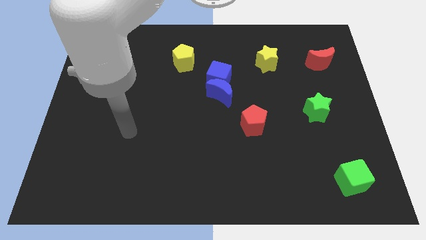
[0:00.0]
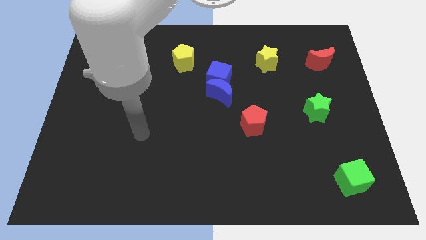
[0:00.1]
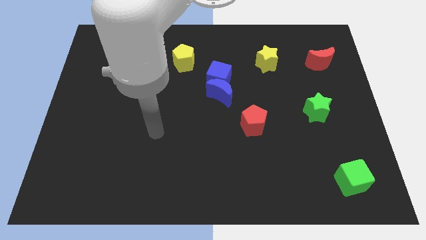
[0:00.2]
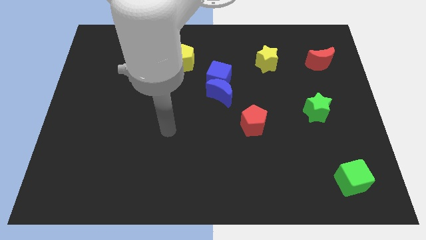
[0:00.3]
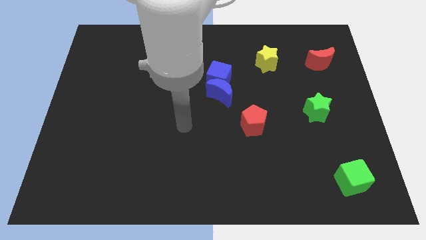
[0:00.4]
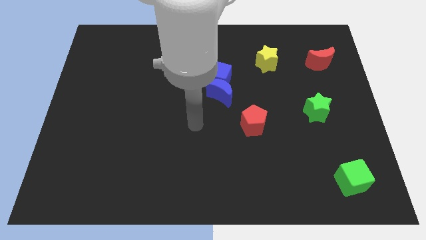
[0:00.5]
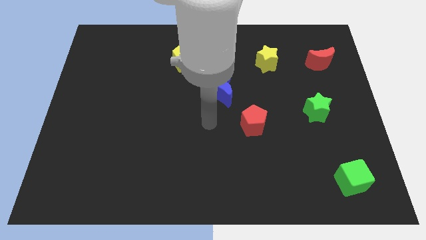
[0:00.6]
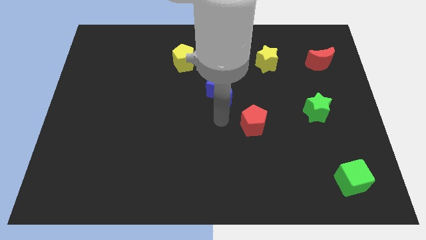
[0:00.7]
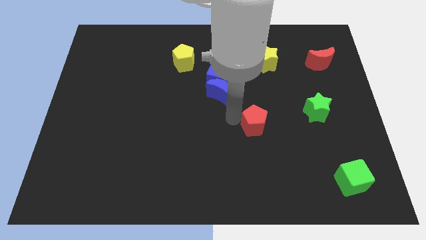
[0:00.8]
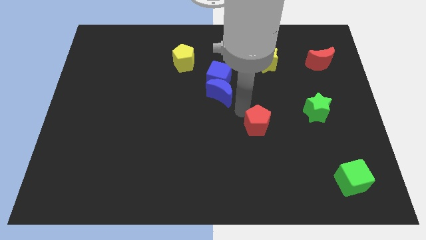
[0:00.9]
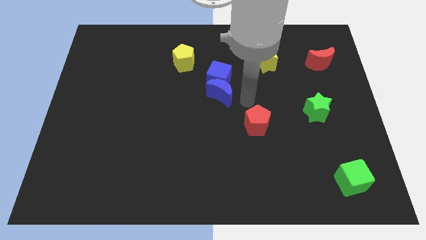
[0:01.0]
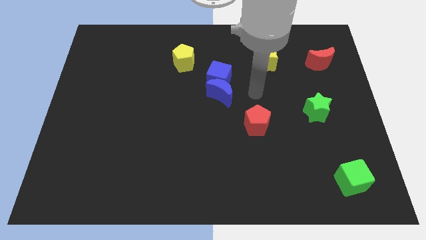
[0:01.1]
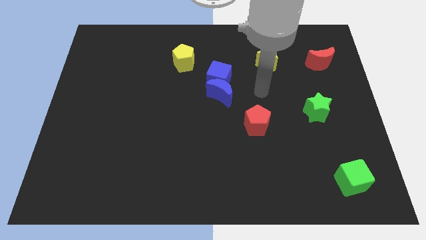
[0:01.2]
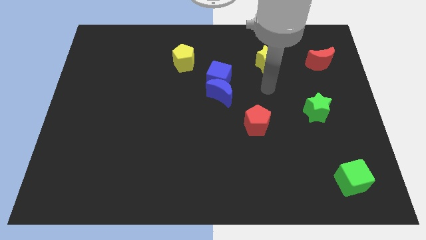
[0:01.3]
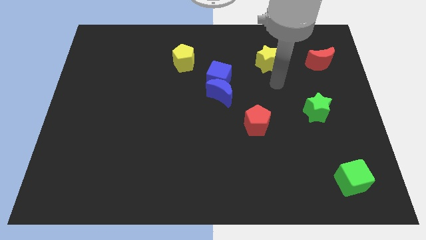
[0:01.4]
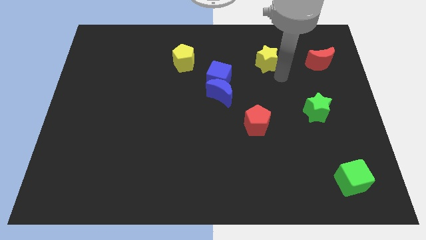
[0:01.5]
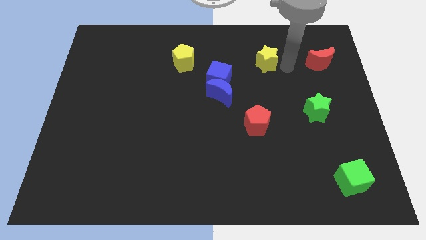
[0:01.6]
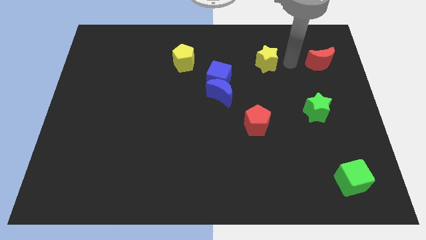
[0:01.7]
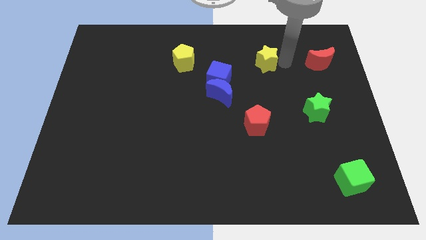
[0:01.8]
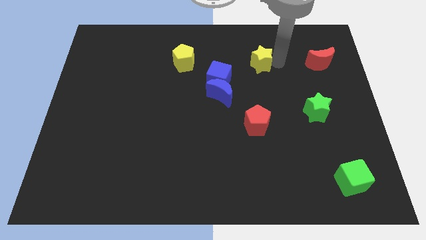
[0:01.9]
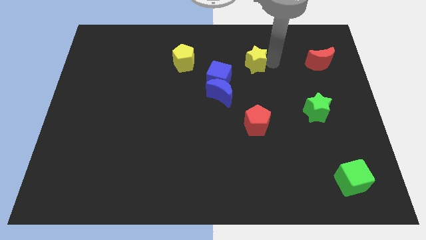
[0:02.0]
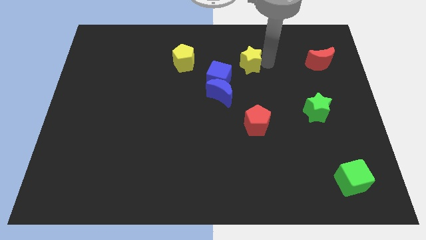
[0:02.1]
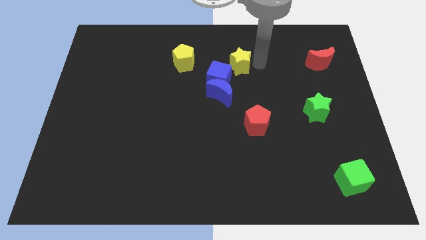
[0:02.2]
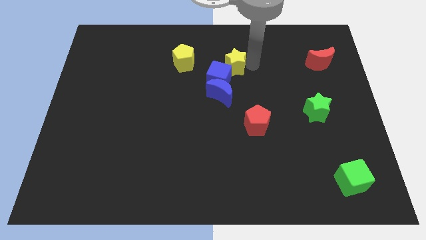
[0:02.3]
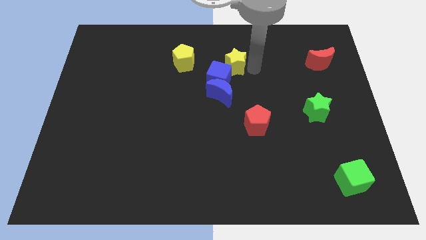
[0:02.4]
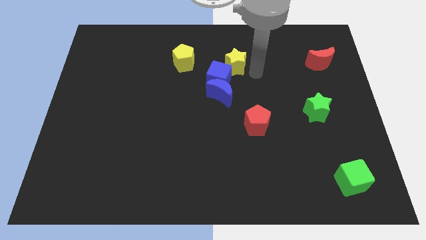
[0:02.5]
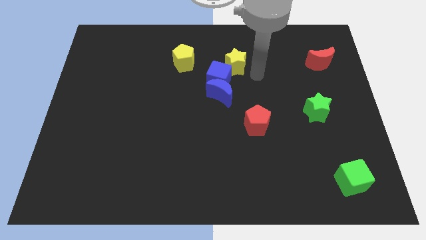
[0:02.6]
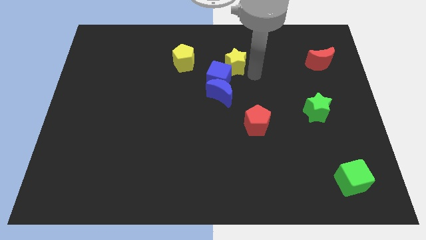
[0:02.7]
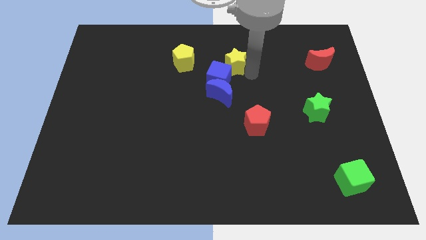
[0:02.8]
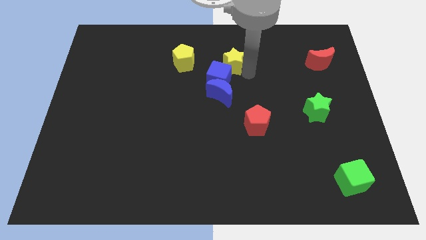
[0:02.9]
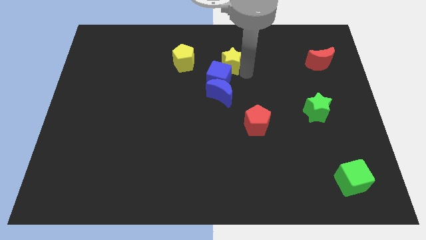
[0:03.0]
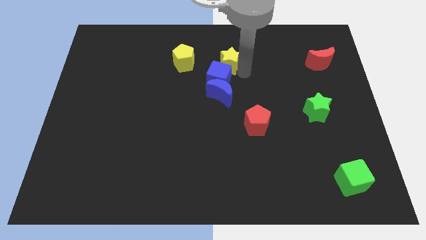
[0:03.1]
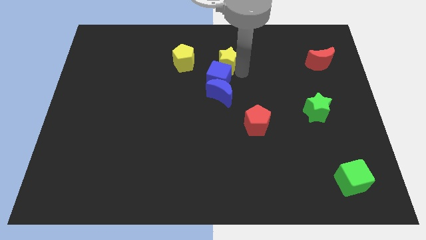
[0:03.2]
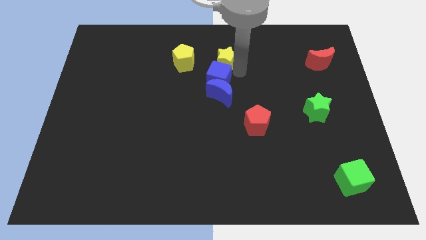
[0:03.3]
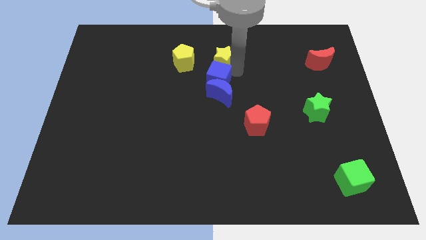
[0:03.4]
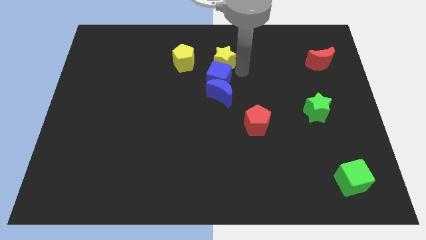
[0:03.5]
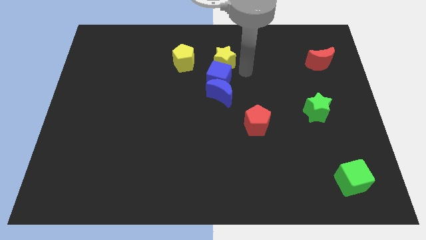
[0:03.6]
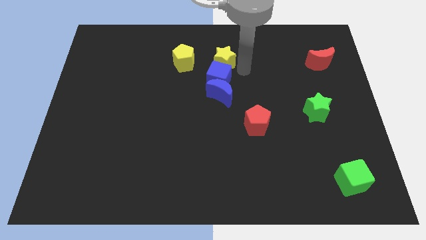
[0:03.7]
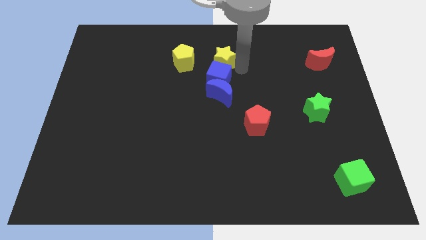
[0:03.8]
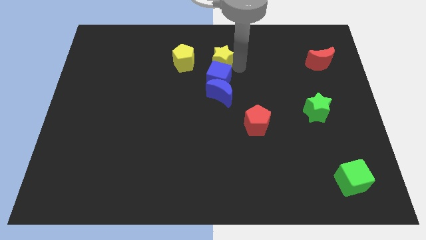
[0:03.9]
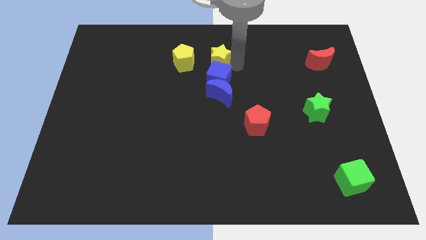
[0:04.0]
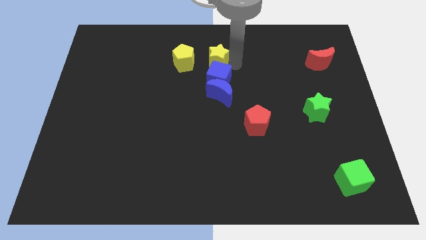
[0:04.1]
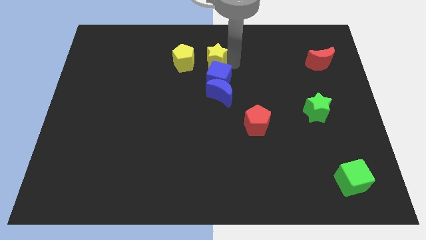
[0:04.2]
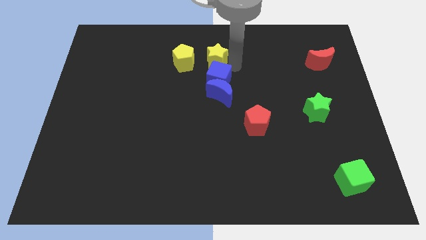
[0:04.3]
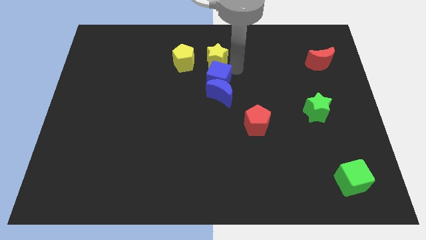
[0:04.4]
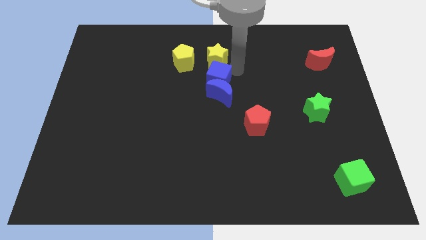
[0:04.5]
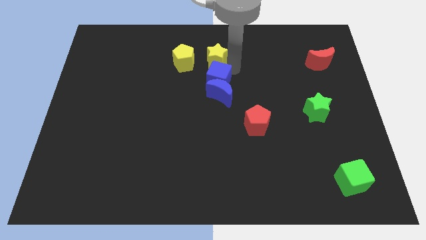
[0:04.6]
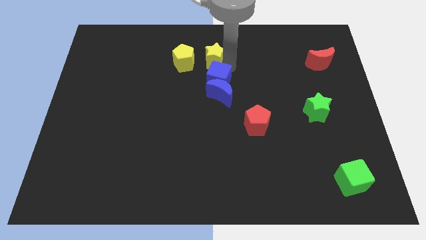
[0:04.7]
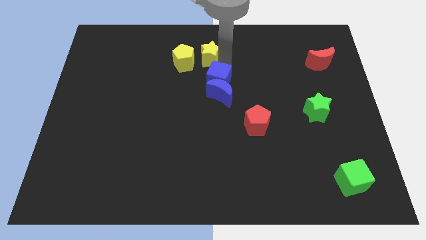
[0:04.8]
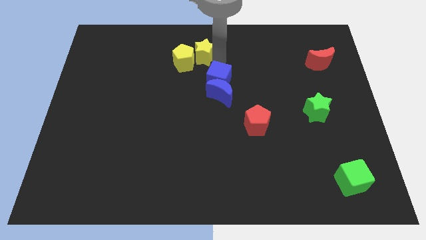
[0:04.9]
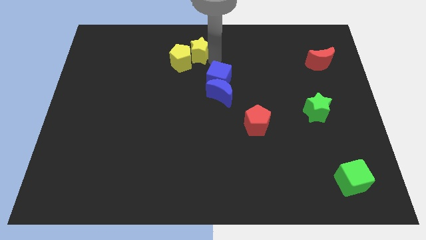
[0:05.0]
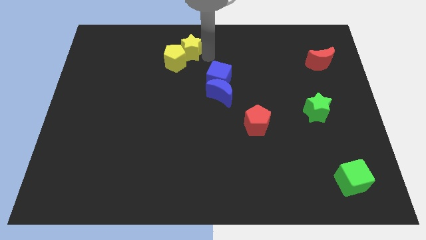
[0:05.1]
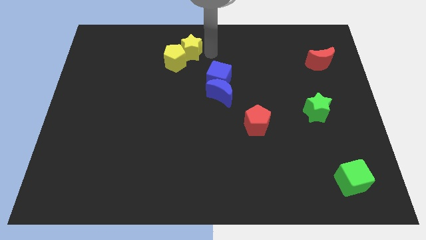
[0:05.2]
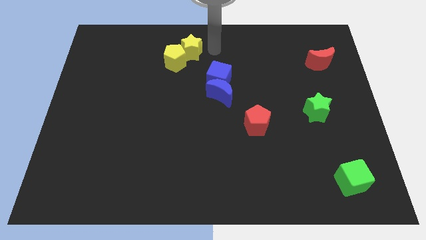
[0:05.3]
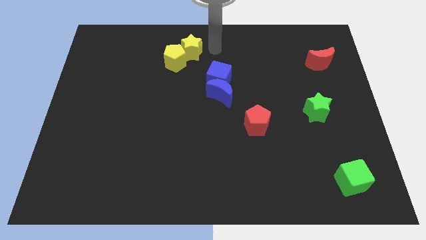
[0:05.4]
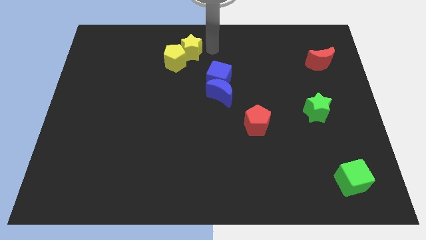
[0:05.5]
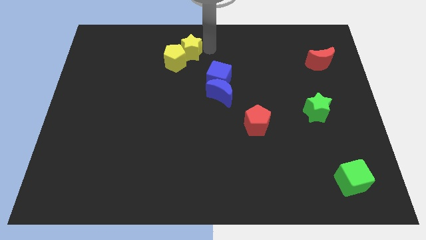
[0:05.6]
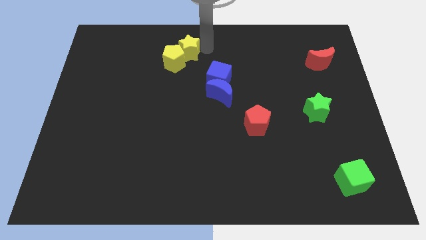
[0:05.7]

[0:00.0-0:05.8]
move the yellow star to the left

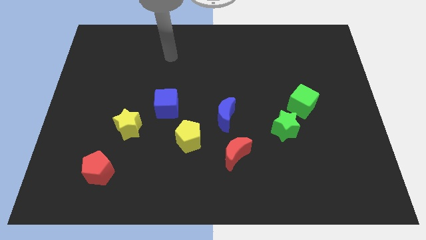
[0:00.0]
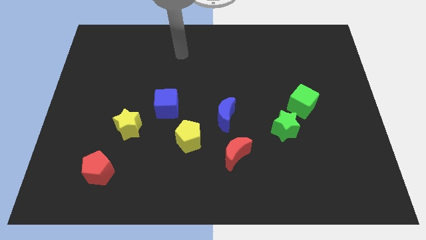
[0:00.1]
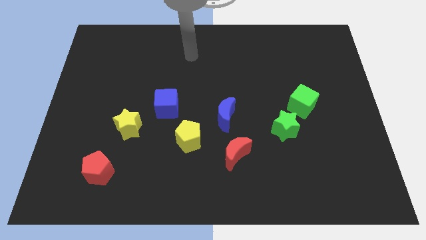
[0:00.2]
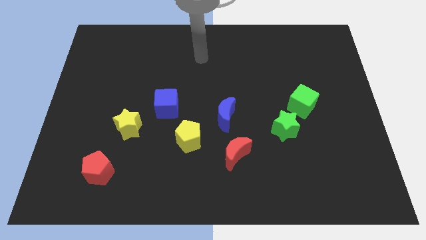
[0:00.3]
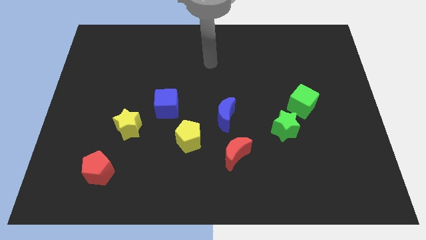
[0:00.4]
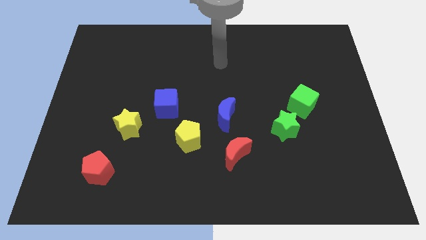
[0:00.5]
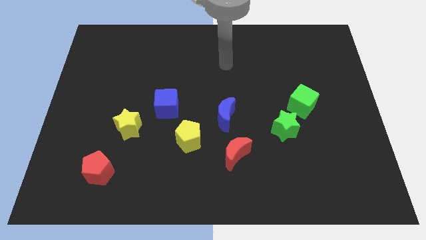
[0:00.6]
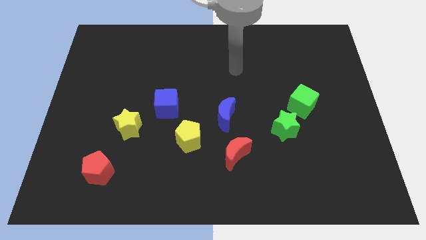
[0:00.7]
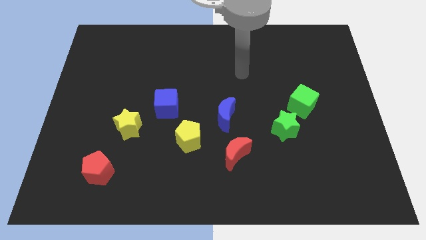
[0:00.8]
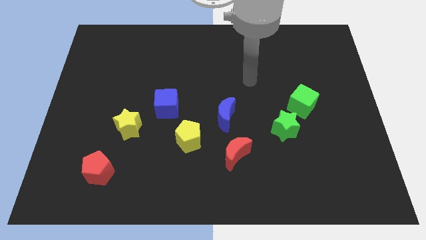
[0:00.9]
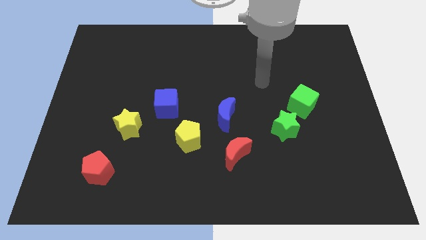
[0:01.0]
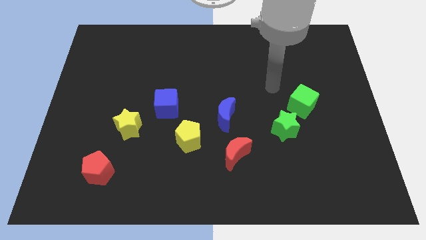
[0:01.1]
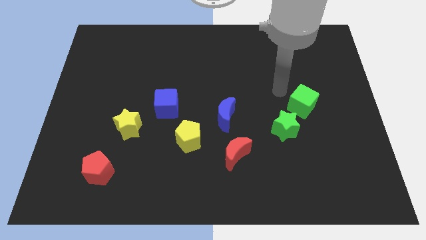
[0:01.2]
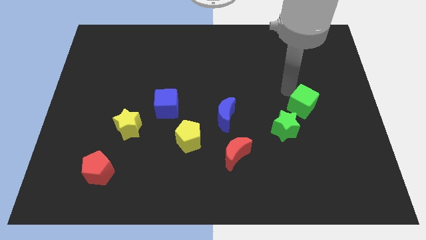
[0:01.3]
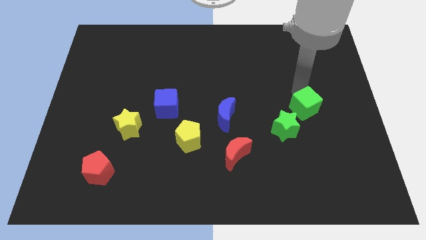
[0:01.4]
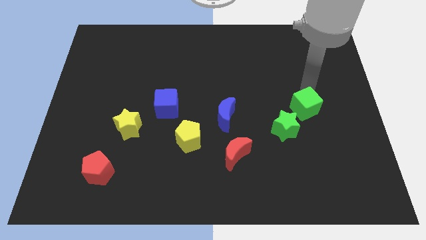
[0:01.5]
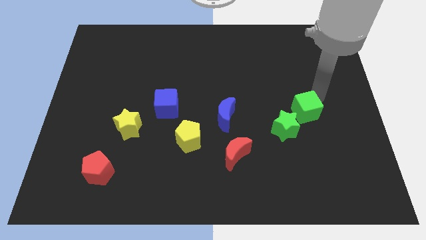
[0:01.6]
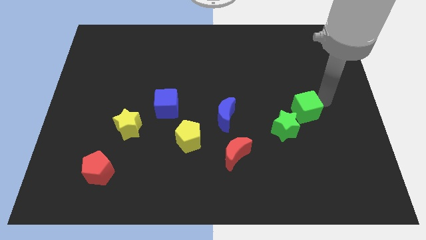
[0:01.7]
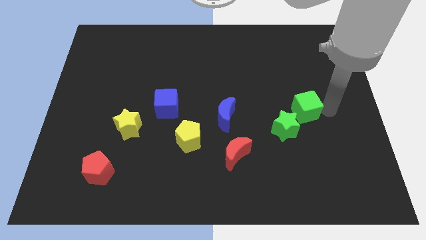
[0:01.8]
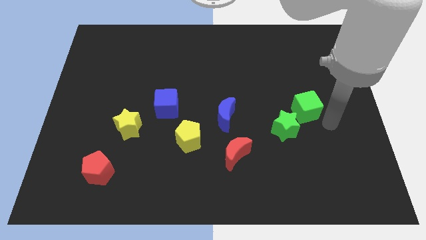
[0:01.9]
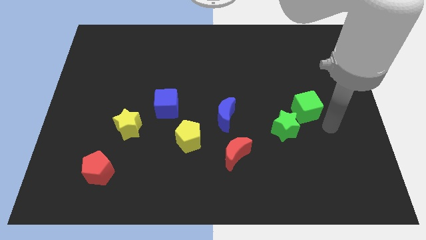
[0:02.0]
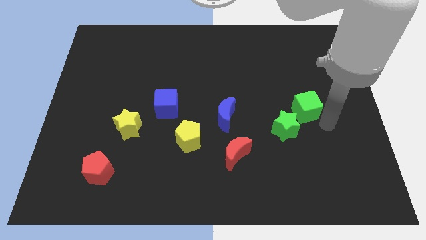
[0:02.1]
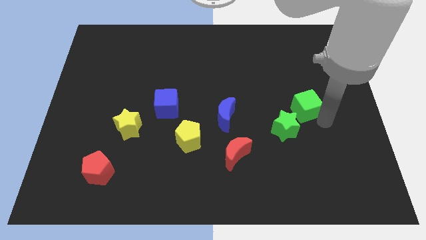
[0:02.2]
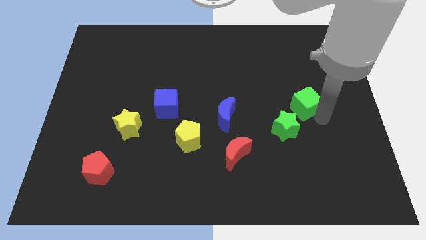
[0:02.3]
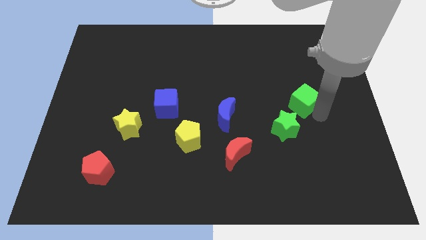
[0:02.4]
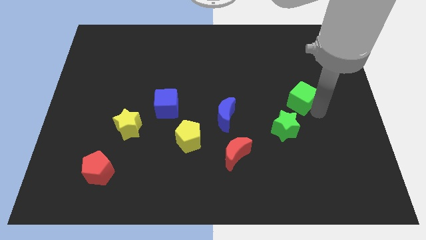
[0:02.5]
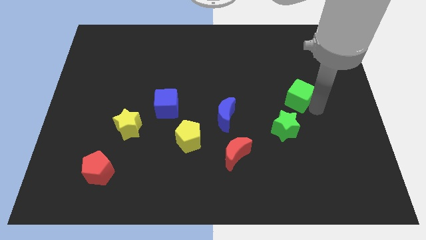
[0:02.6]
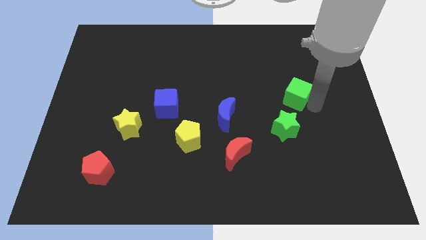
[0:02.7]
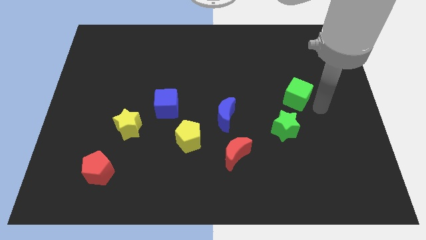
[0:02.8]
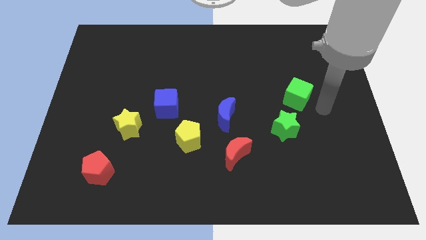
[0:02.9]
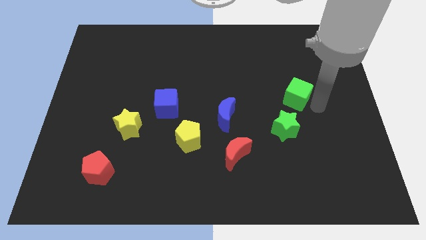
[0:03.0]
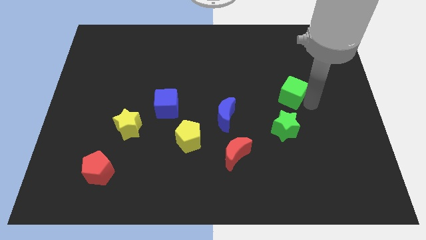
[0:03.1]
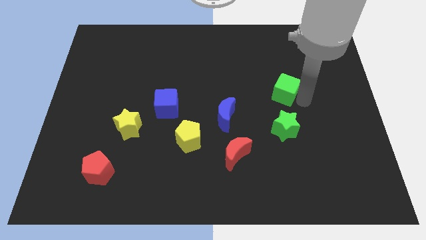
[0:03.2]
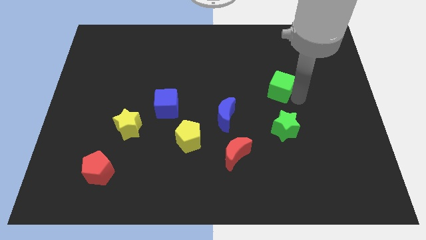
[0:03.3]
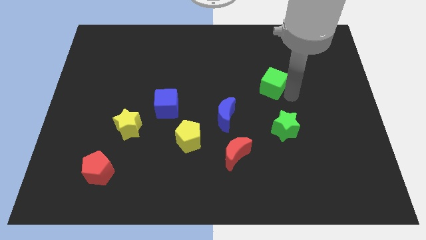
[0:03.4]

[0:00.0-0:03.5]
move the green cube somewhat upwards and then to the left
